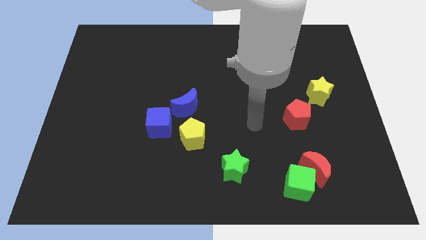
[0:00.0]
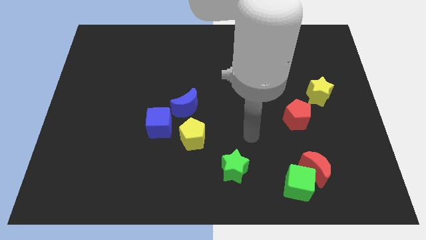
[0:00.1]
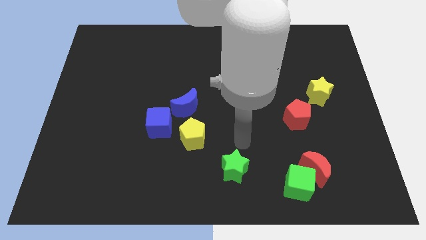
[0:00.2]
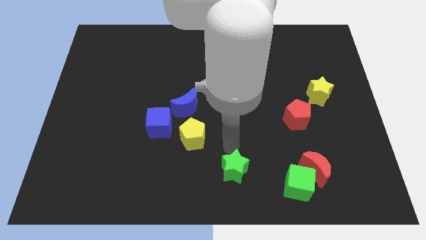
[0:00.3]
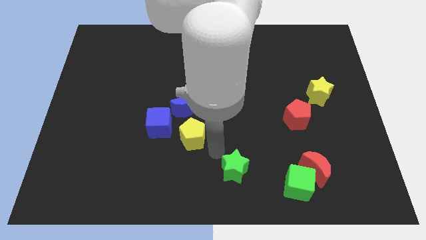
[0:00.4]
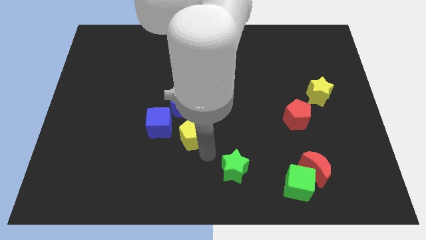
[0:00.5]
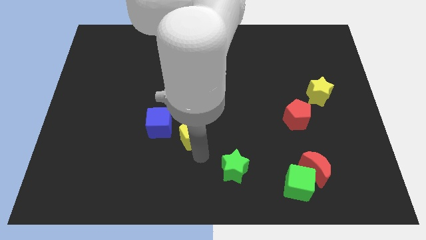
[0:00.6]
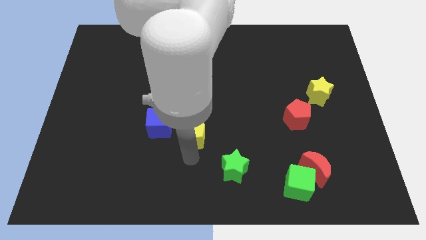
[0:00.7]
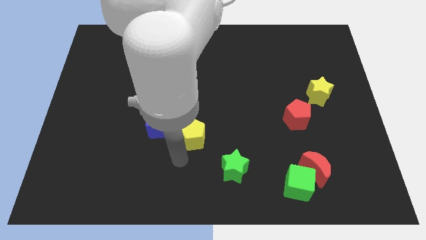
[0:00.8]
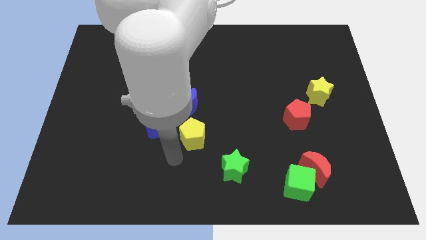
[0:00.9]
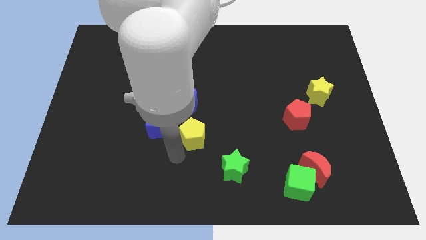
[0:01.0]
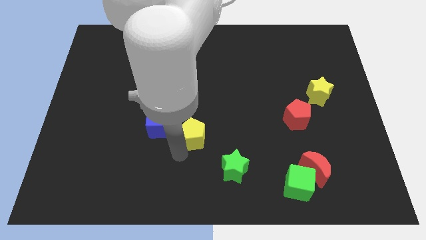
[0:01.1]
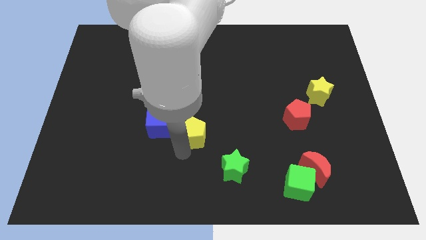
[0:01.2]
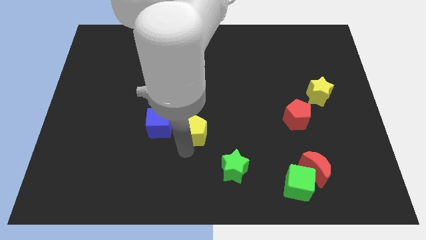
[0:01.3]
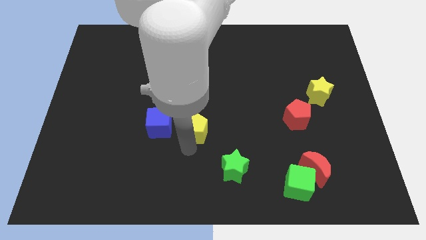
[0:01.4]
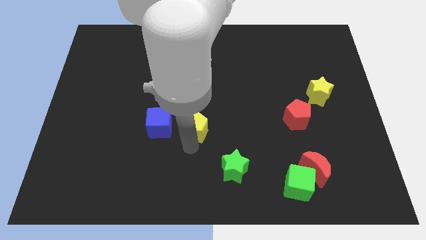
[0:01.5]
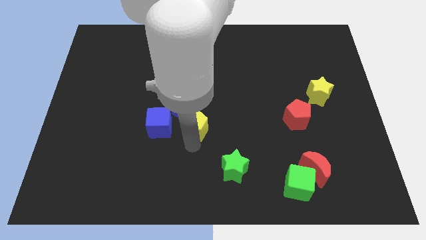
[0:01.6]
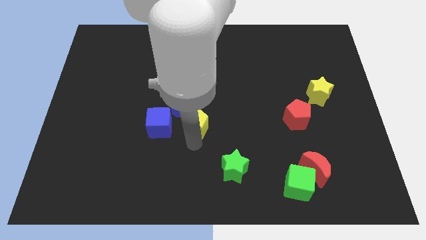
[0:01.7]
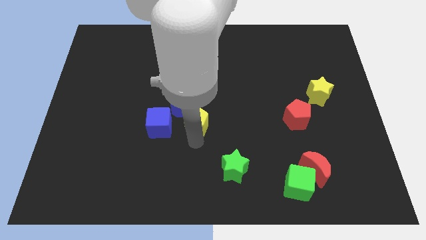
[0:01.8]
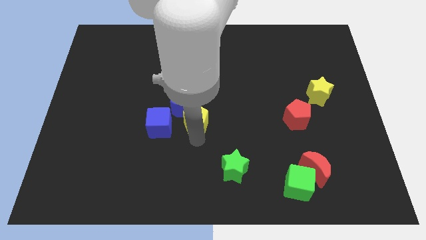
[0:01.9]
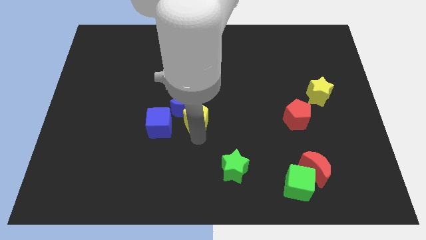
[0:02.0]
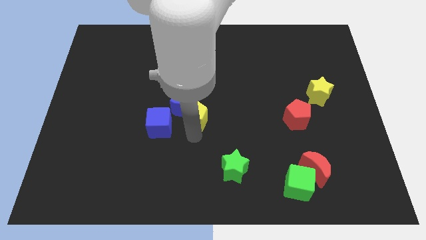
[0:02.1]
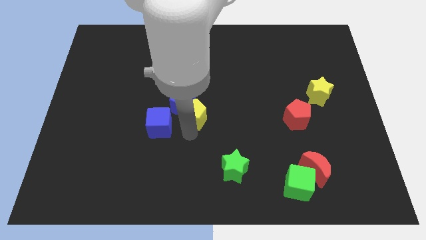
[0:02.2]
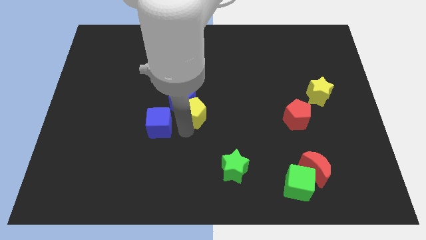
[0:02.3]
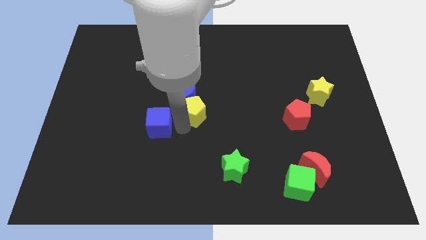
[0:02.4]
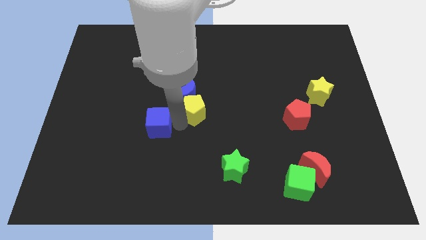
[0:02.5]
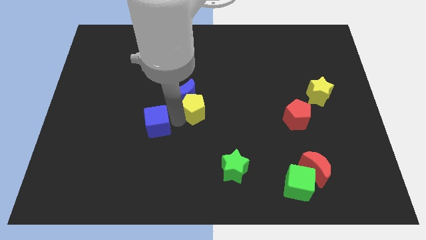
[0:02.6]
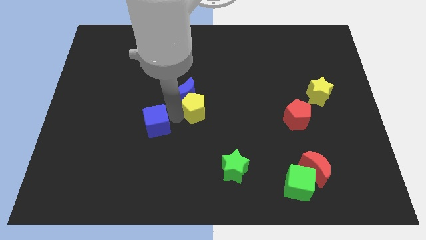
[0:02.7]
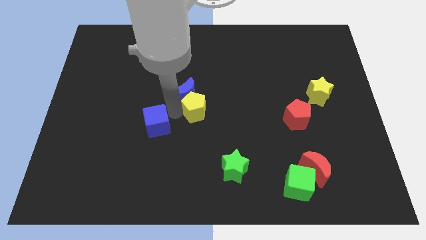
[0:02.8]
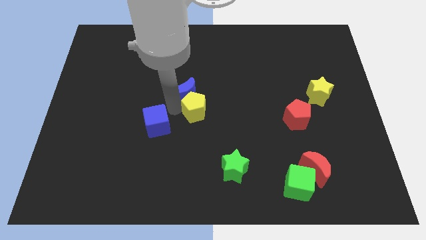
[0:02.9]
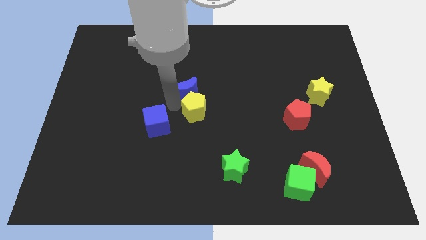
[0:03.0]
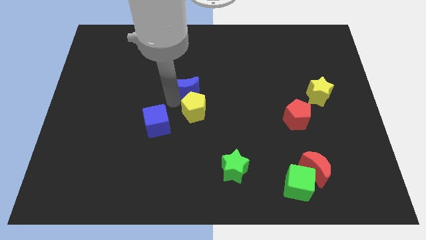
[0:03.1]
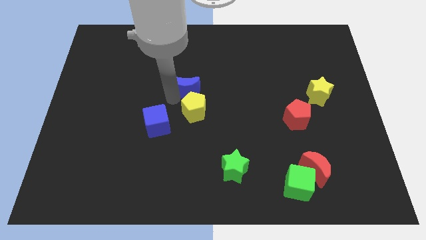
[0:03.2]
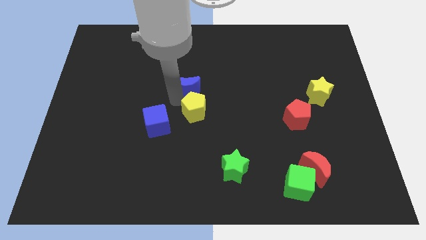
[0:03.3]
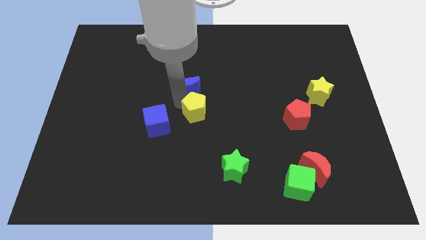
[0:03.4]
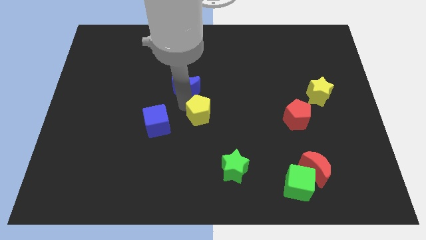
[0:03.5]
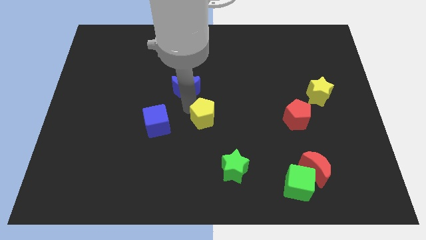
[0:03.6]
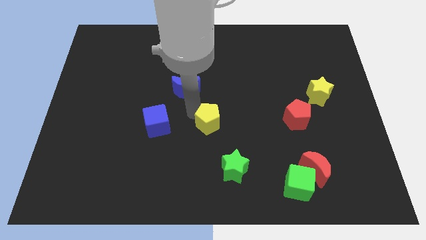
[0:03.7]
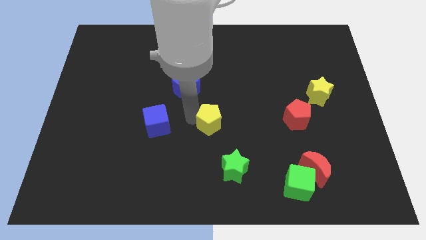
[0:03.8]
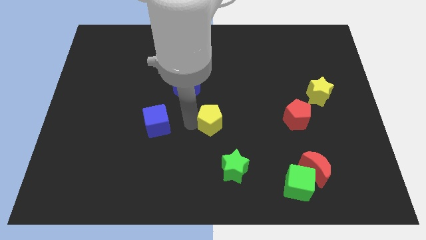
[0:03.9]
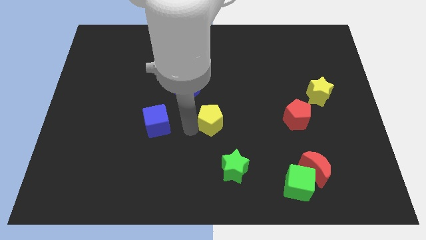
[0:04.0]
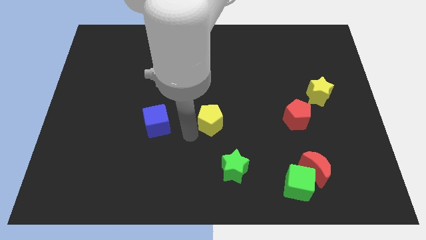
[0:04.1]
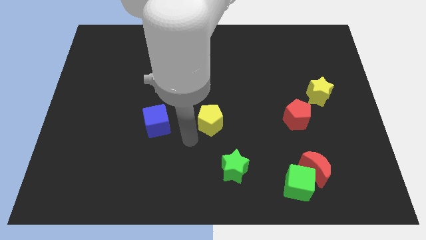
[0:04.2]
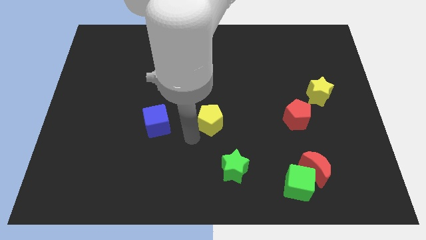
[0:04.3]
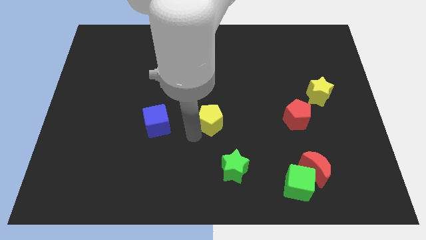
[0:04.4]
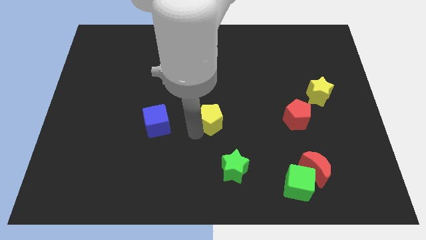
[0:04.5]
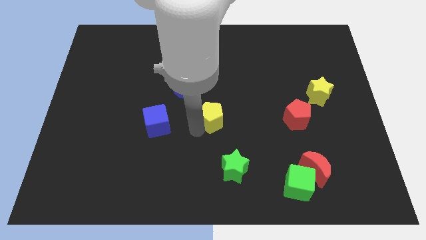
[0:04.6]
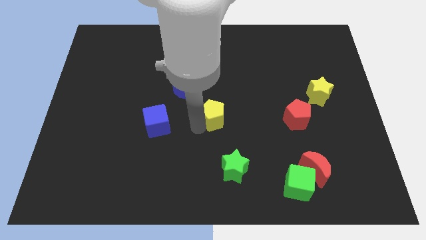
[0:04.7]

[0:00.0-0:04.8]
slide the yellow pentagon diagonally upwards and to the right a bit

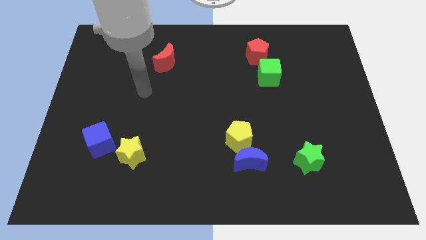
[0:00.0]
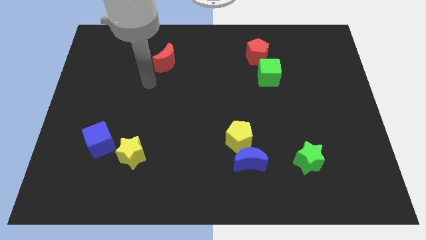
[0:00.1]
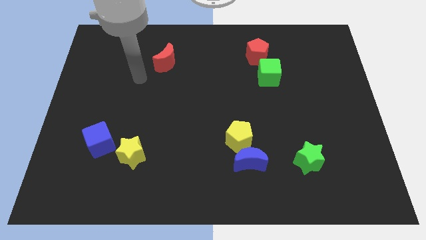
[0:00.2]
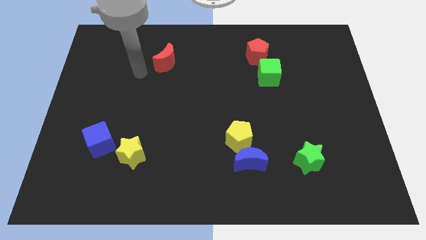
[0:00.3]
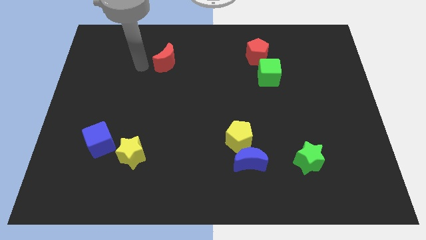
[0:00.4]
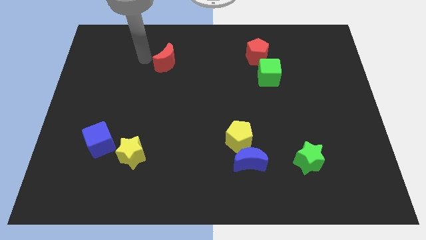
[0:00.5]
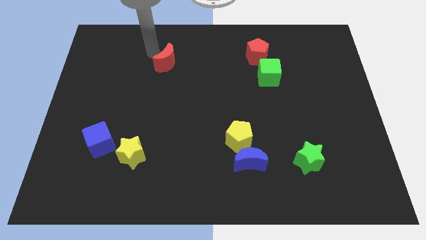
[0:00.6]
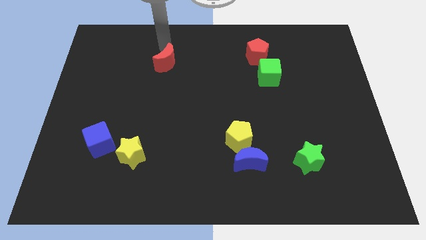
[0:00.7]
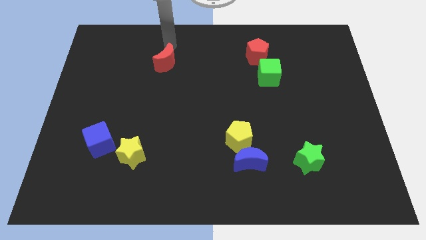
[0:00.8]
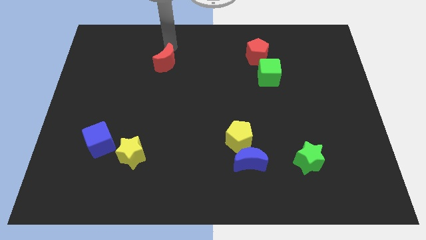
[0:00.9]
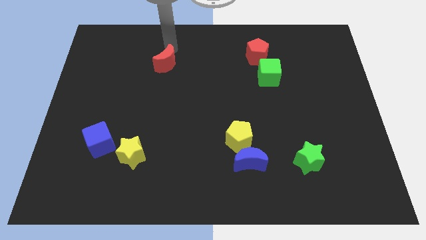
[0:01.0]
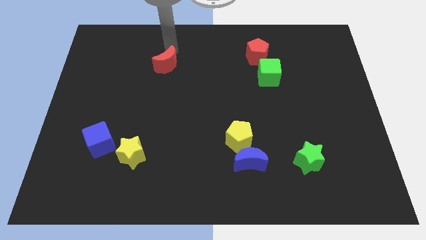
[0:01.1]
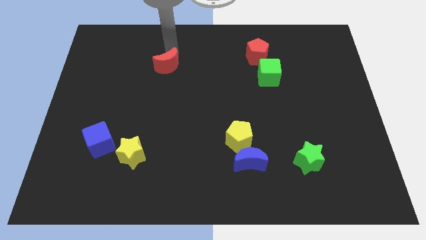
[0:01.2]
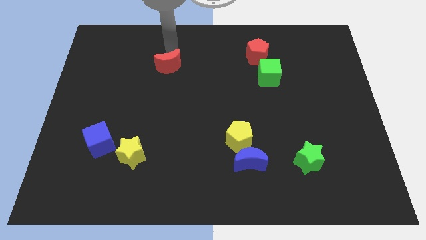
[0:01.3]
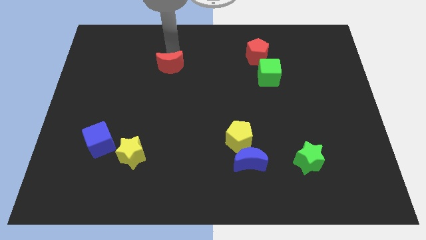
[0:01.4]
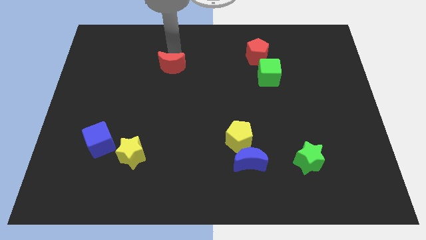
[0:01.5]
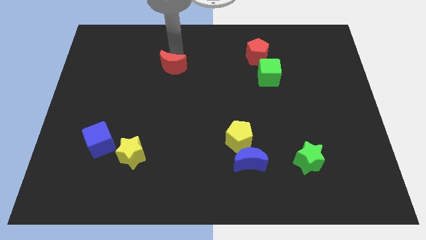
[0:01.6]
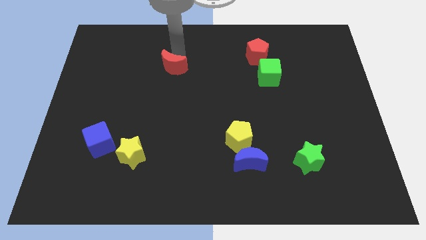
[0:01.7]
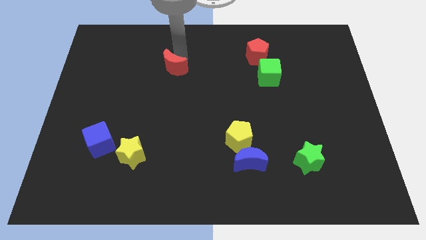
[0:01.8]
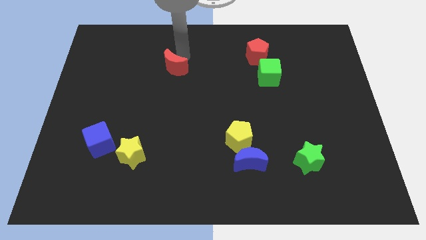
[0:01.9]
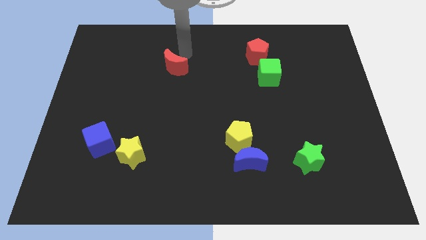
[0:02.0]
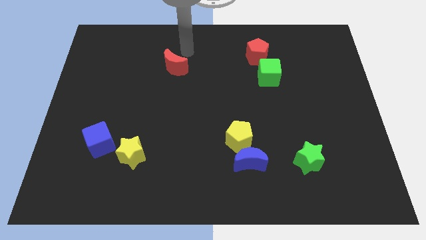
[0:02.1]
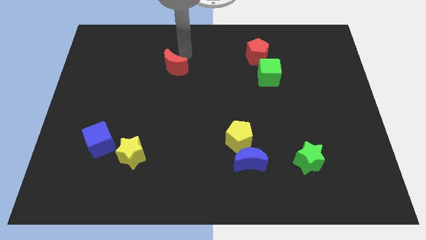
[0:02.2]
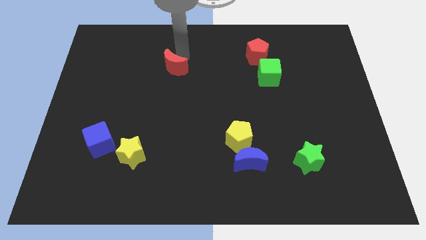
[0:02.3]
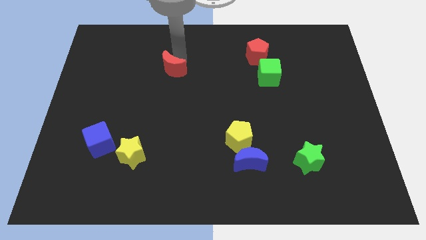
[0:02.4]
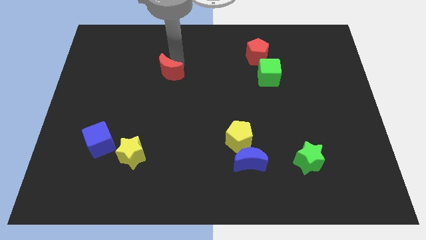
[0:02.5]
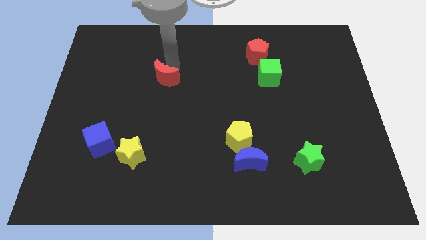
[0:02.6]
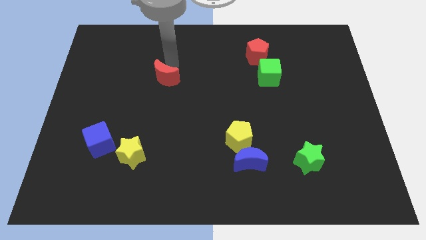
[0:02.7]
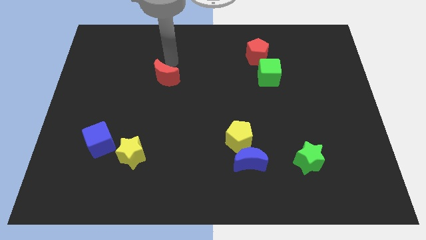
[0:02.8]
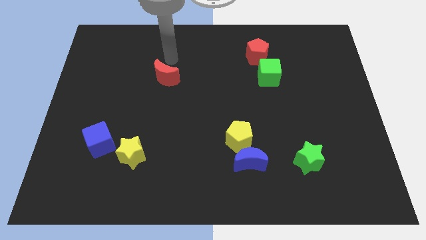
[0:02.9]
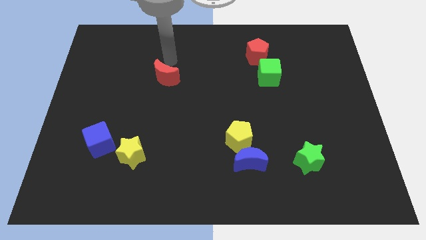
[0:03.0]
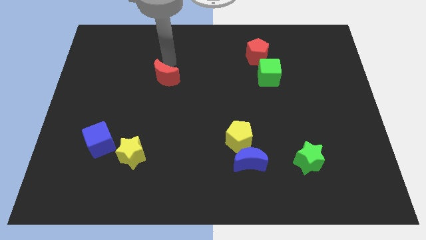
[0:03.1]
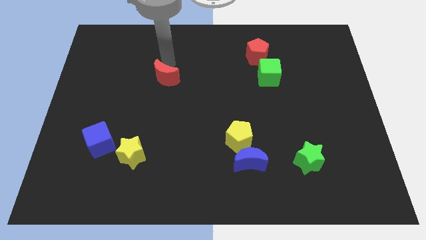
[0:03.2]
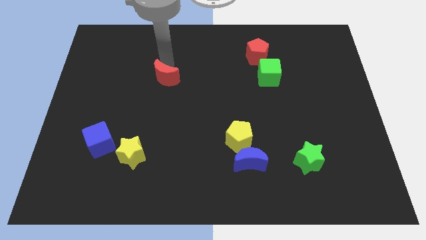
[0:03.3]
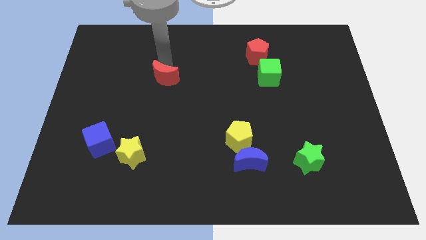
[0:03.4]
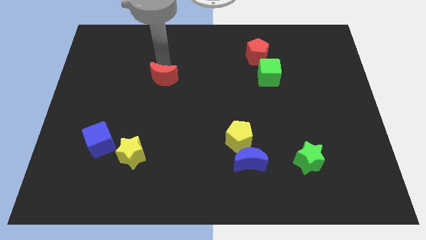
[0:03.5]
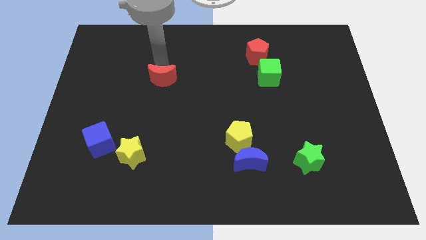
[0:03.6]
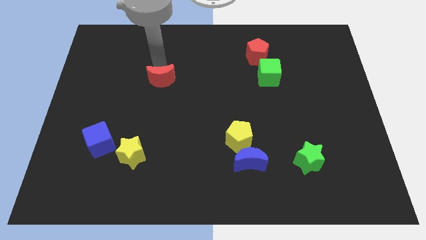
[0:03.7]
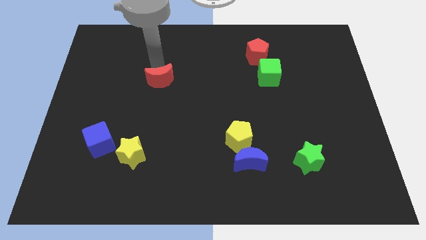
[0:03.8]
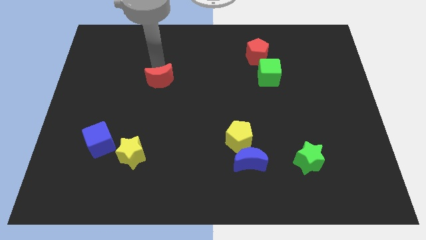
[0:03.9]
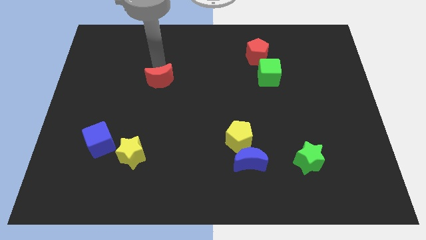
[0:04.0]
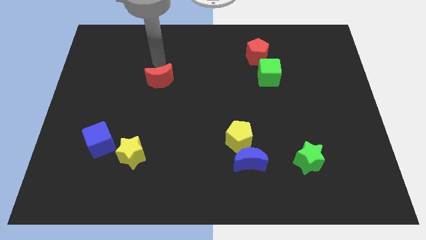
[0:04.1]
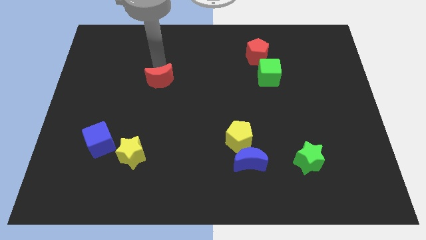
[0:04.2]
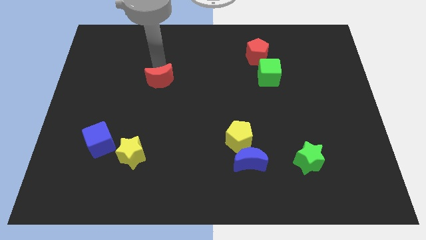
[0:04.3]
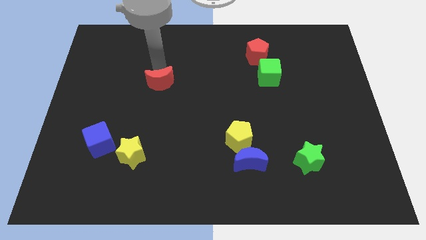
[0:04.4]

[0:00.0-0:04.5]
slide the red moon down slightly
